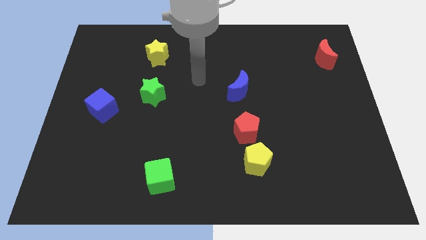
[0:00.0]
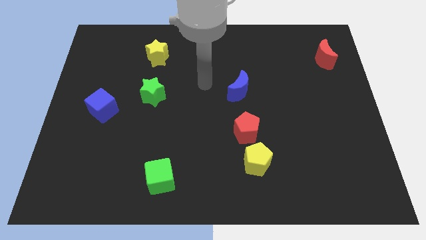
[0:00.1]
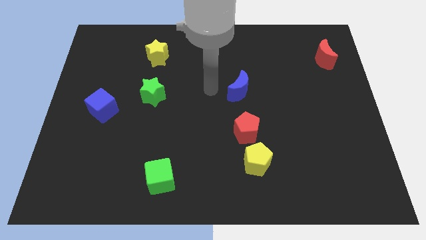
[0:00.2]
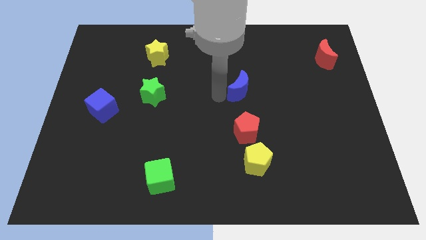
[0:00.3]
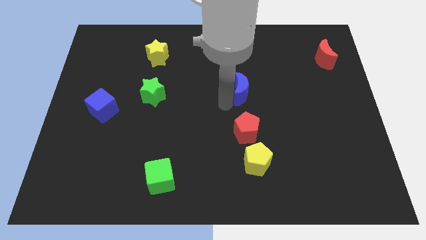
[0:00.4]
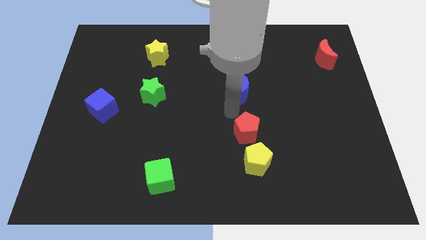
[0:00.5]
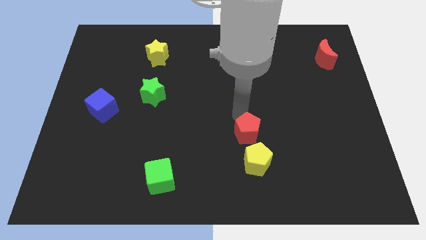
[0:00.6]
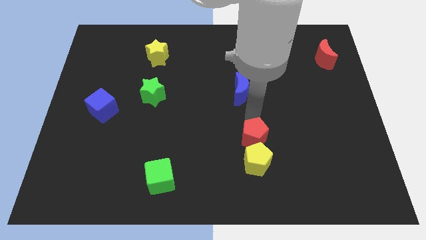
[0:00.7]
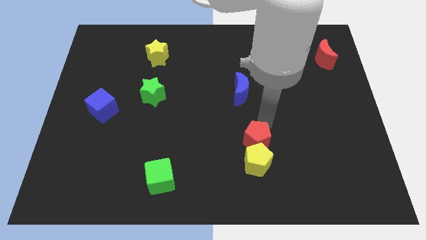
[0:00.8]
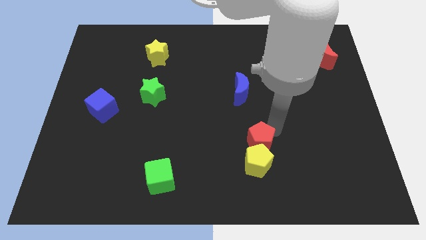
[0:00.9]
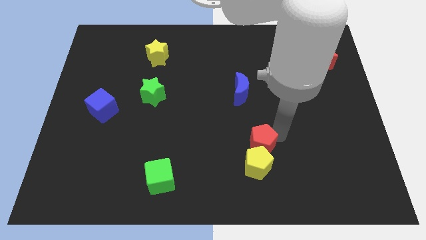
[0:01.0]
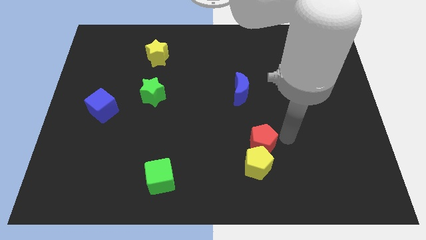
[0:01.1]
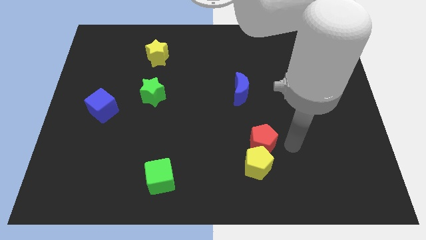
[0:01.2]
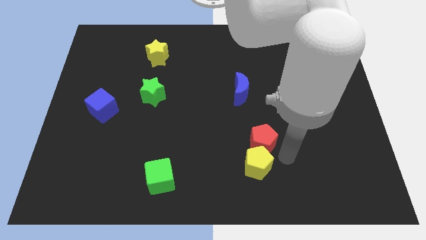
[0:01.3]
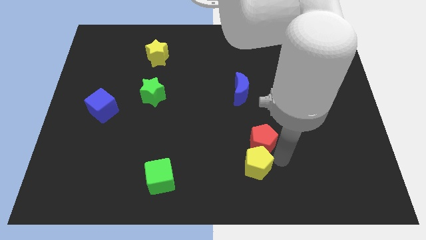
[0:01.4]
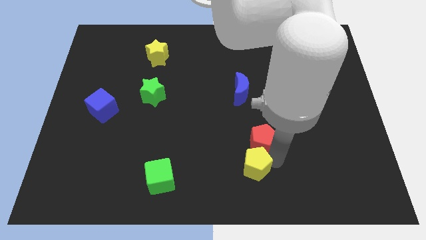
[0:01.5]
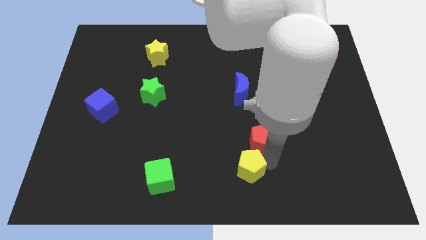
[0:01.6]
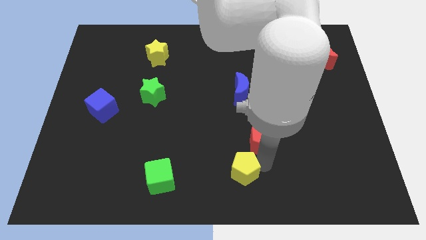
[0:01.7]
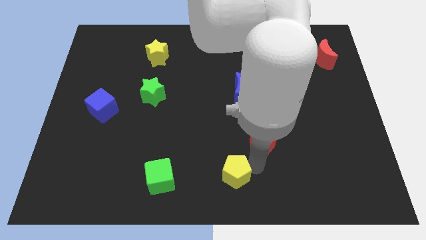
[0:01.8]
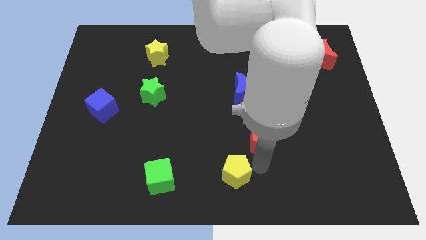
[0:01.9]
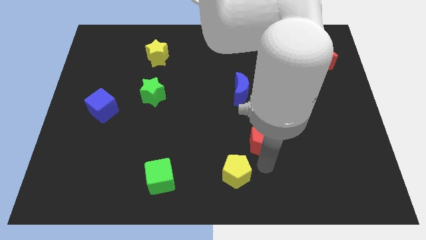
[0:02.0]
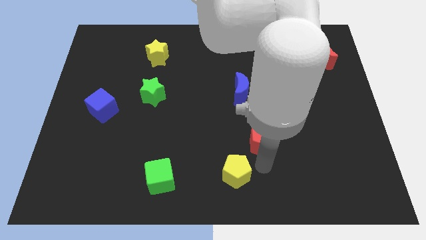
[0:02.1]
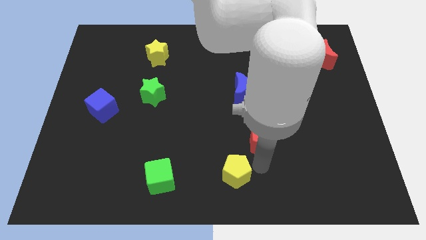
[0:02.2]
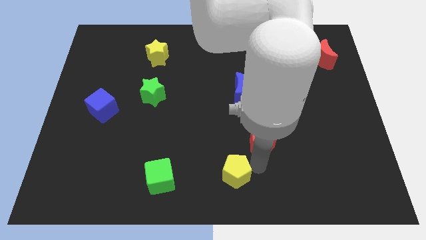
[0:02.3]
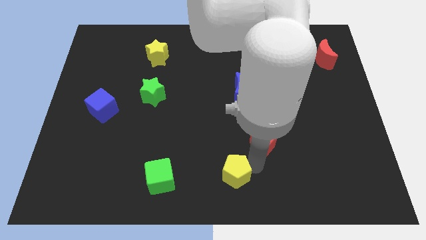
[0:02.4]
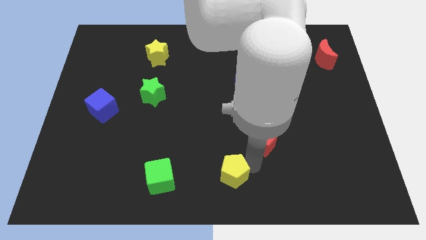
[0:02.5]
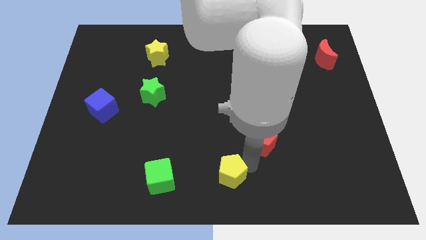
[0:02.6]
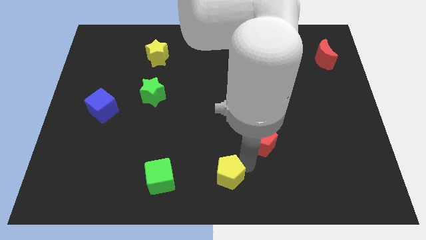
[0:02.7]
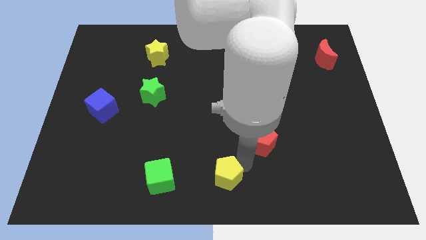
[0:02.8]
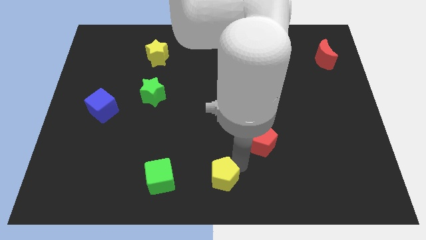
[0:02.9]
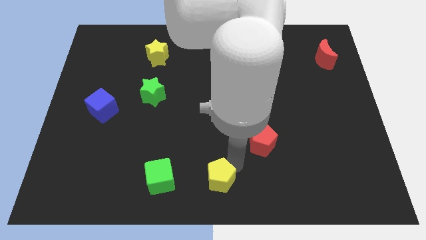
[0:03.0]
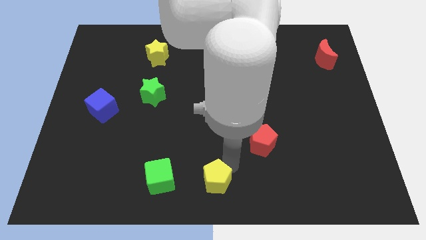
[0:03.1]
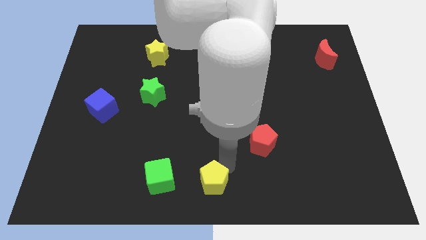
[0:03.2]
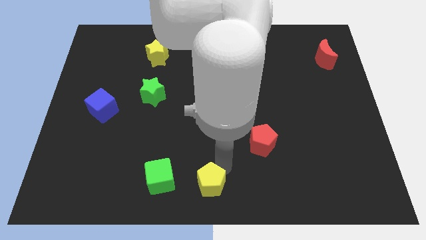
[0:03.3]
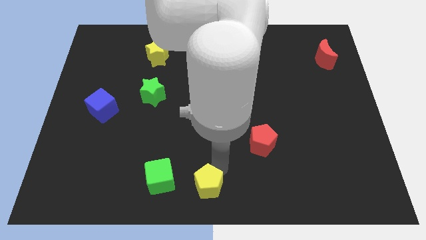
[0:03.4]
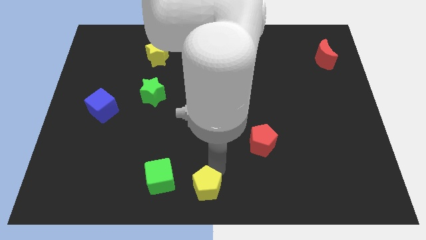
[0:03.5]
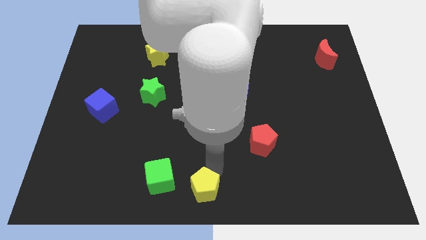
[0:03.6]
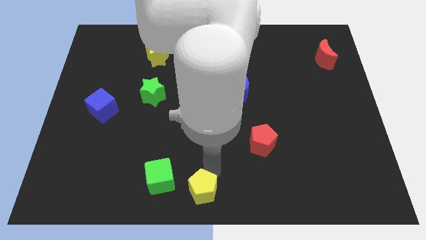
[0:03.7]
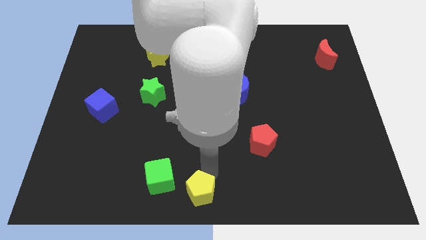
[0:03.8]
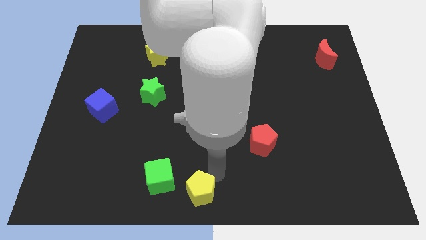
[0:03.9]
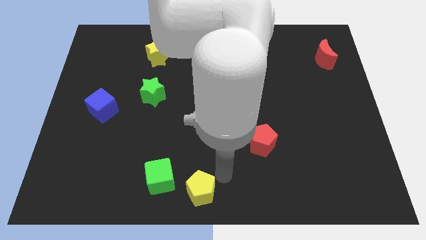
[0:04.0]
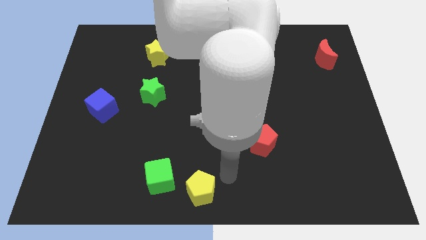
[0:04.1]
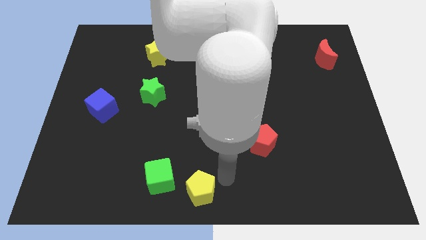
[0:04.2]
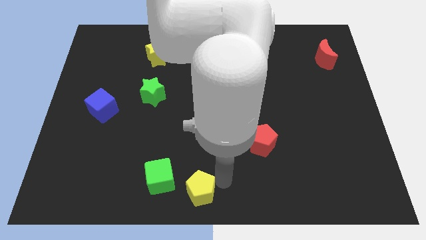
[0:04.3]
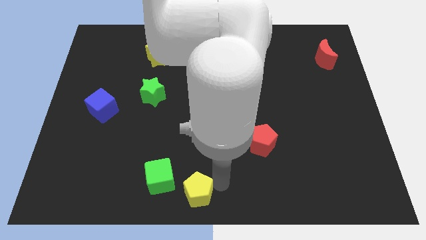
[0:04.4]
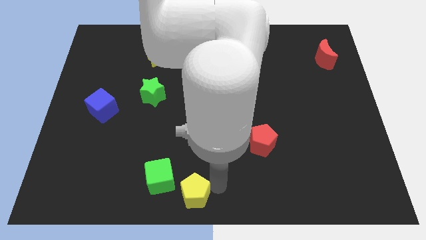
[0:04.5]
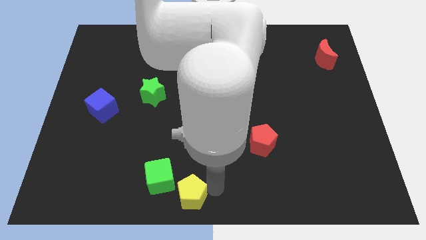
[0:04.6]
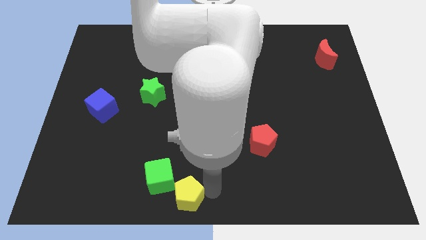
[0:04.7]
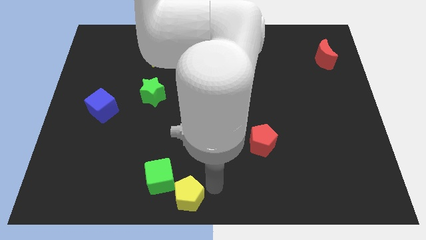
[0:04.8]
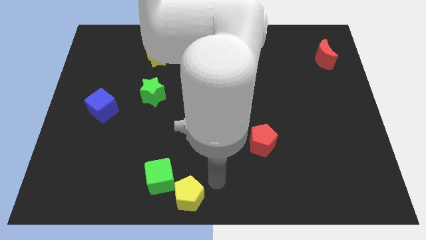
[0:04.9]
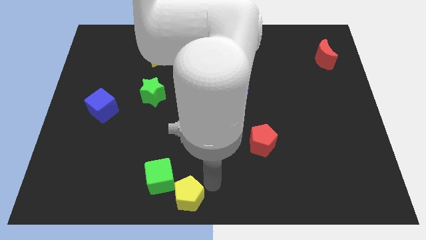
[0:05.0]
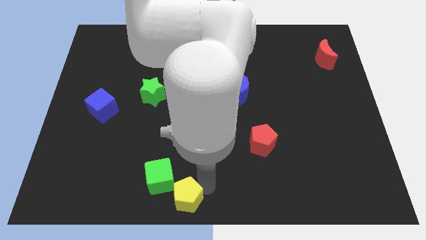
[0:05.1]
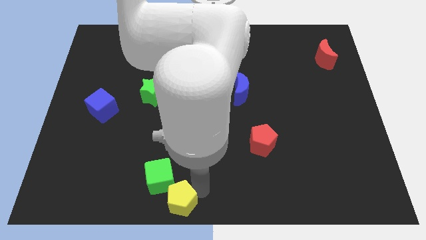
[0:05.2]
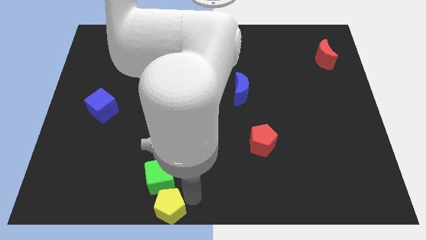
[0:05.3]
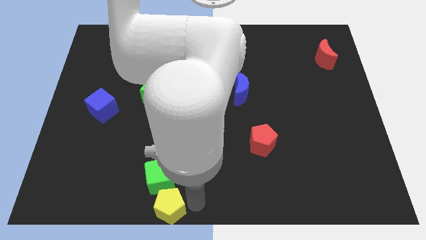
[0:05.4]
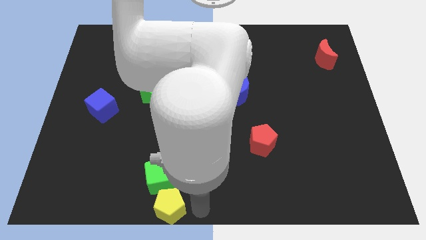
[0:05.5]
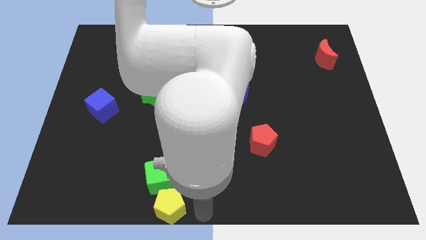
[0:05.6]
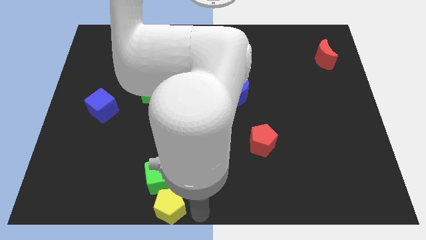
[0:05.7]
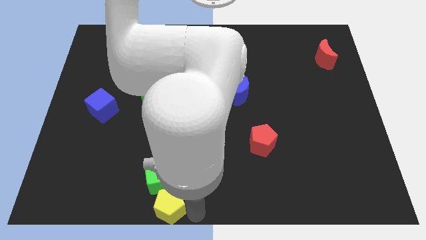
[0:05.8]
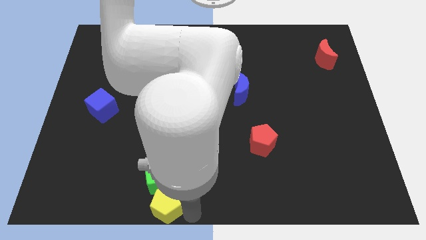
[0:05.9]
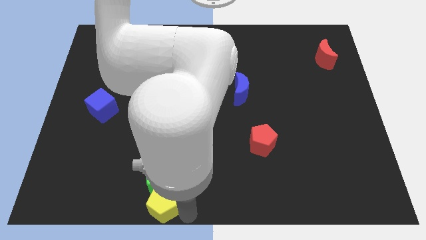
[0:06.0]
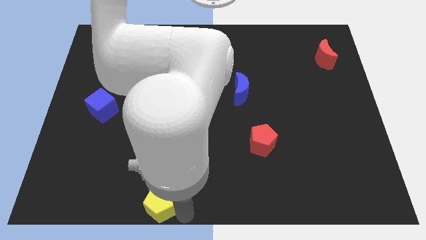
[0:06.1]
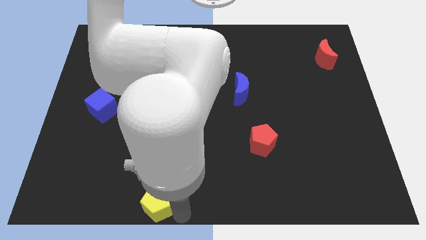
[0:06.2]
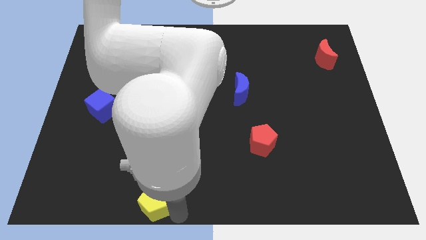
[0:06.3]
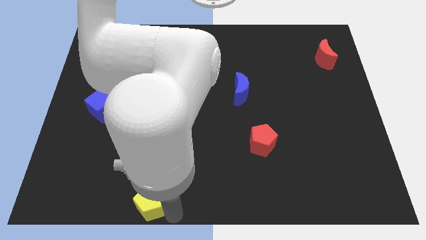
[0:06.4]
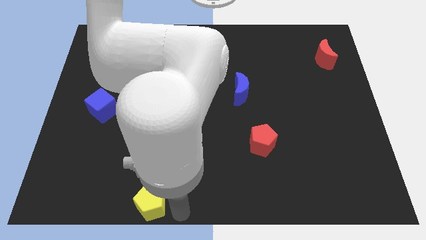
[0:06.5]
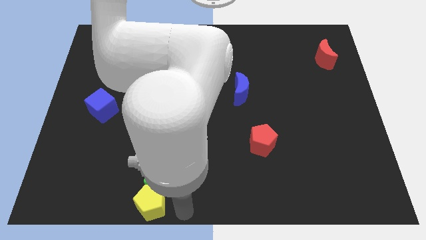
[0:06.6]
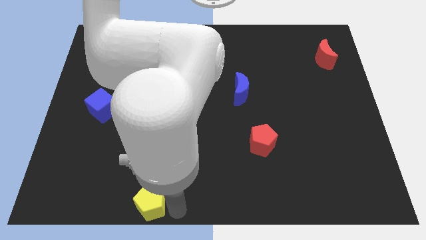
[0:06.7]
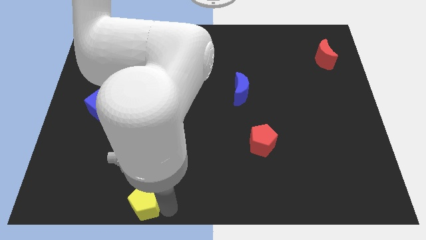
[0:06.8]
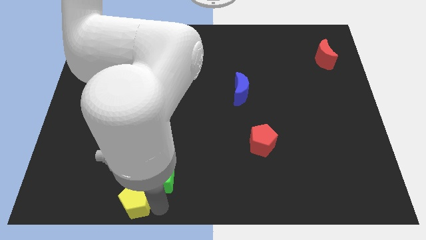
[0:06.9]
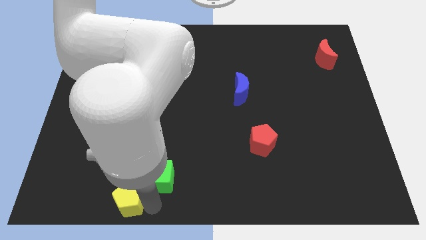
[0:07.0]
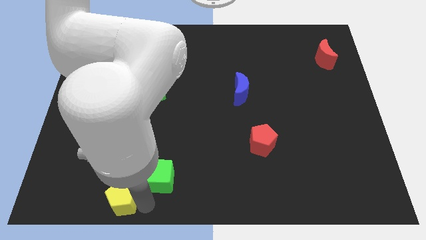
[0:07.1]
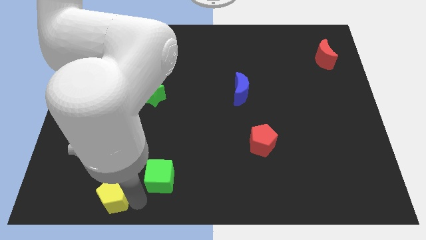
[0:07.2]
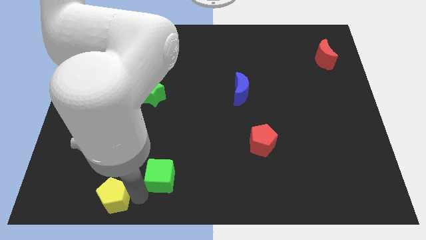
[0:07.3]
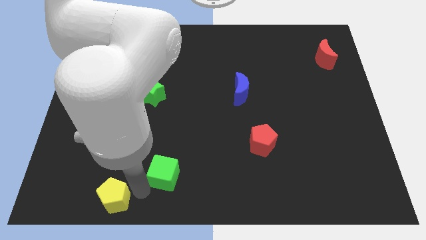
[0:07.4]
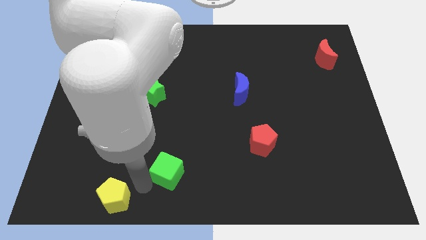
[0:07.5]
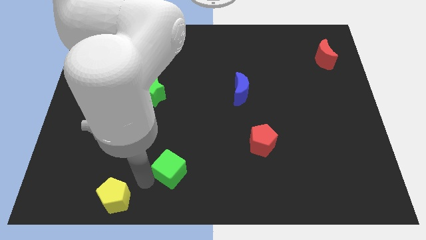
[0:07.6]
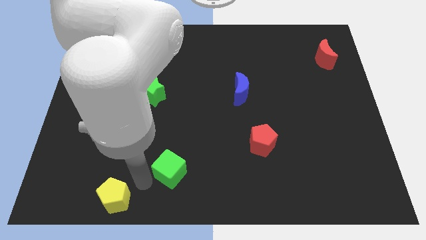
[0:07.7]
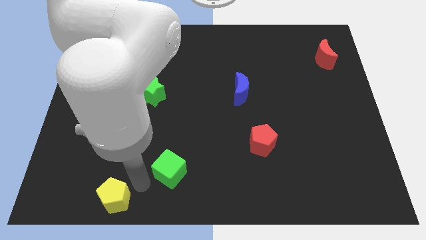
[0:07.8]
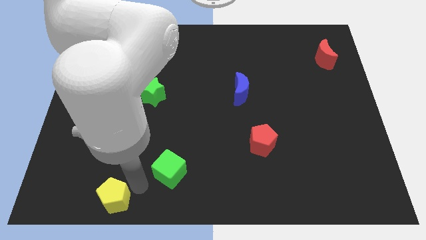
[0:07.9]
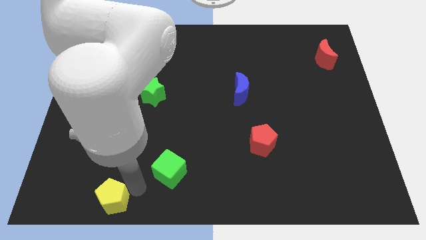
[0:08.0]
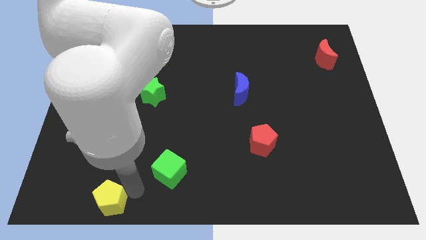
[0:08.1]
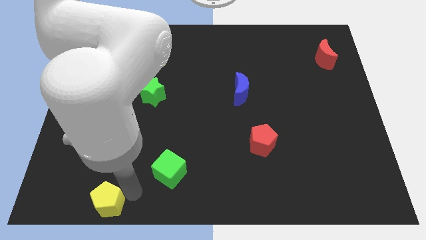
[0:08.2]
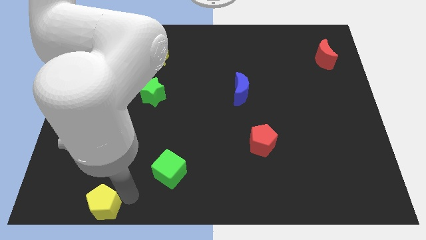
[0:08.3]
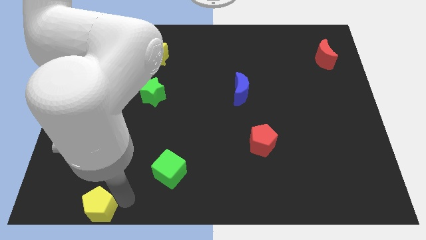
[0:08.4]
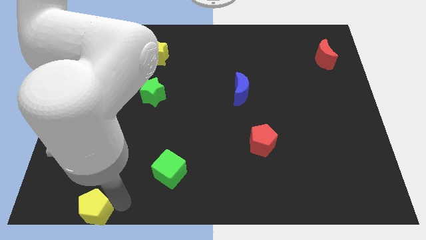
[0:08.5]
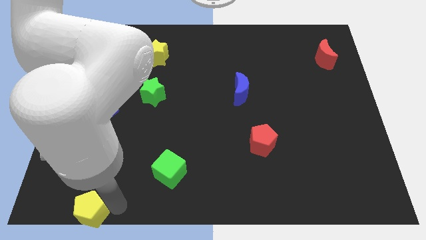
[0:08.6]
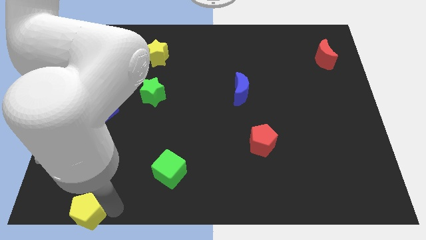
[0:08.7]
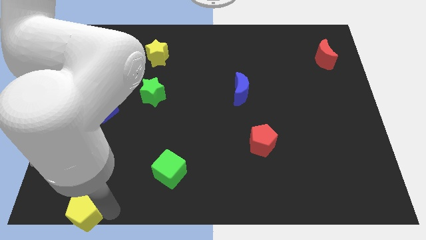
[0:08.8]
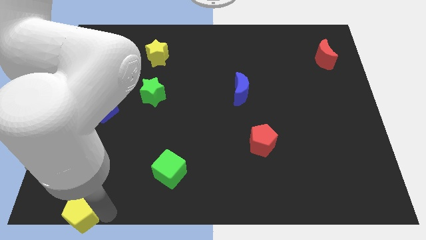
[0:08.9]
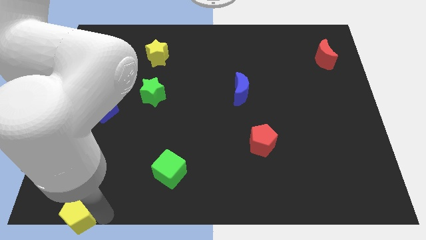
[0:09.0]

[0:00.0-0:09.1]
push the yellow pentagon to the lower left corner
